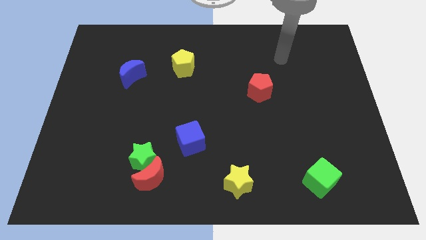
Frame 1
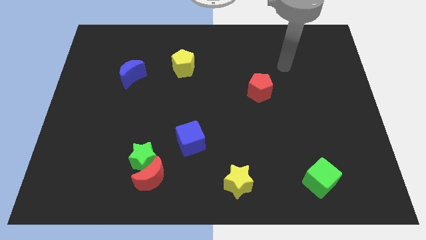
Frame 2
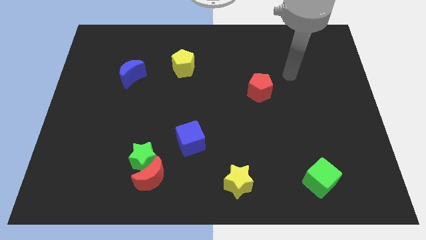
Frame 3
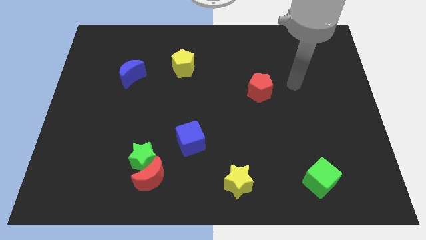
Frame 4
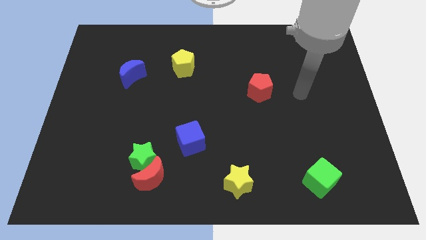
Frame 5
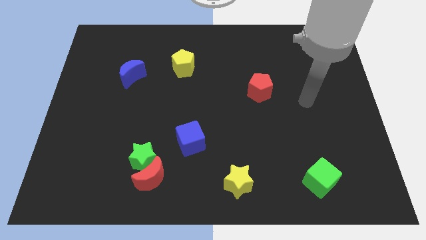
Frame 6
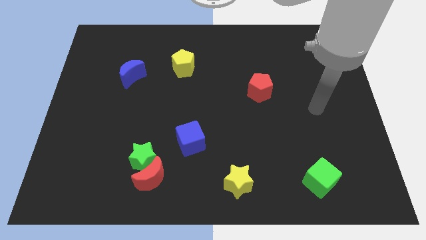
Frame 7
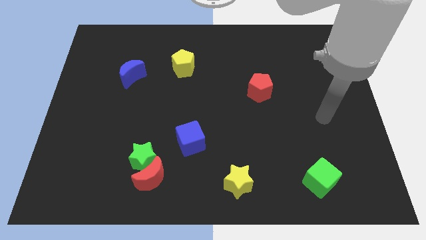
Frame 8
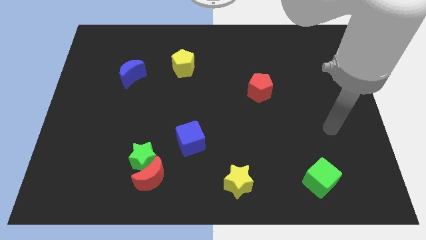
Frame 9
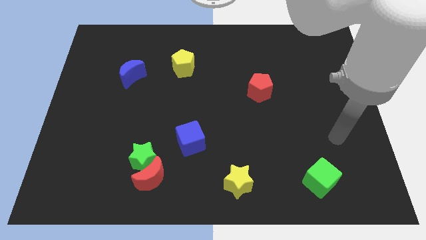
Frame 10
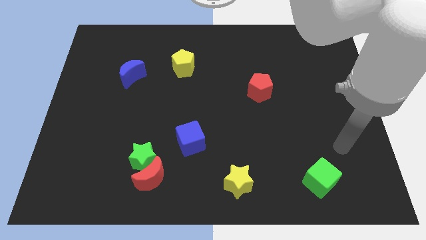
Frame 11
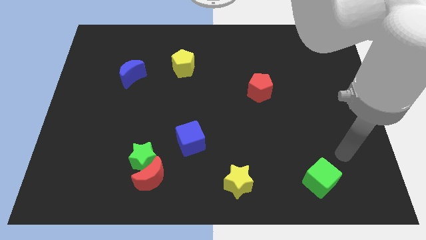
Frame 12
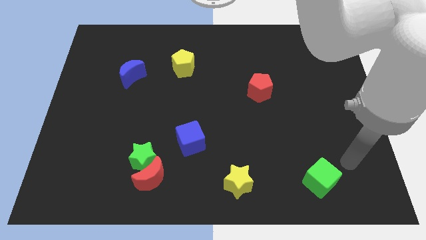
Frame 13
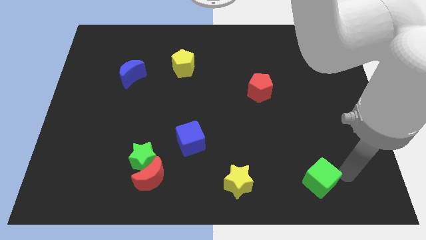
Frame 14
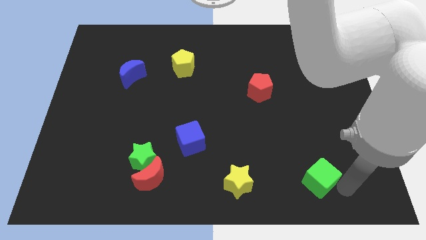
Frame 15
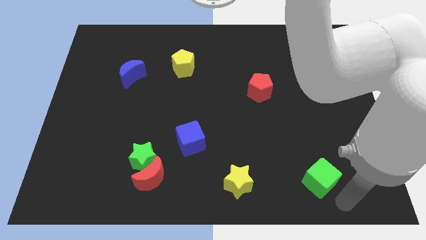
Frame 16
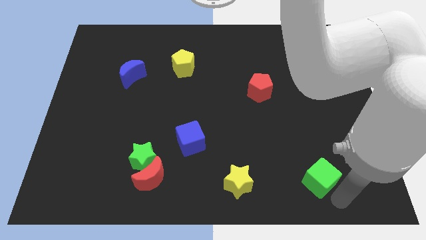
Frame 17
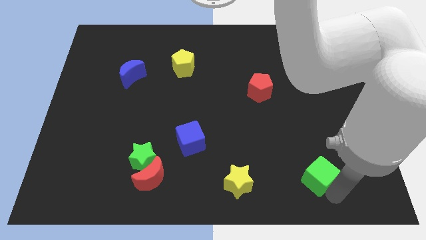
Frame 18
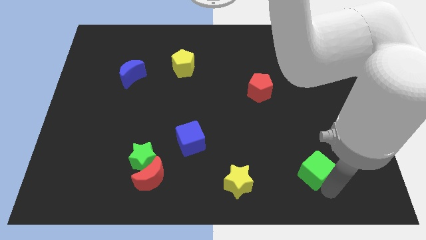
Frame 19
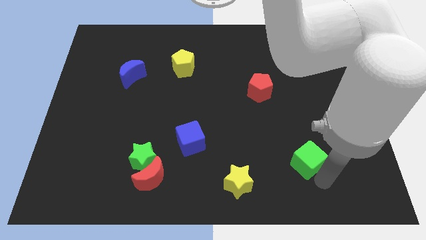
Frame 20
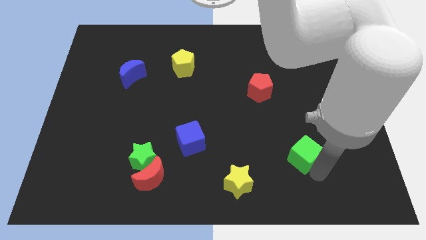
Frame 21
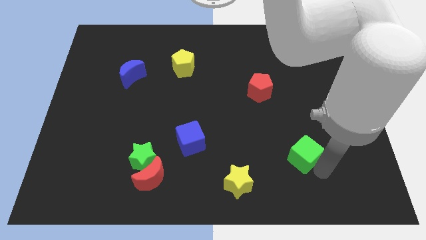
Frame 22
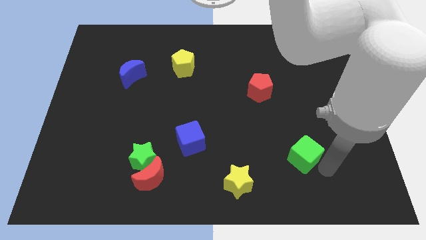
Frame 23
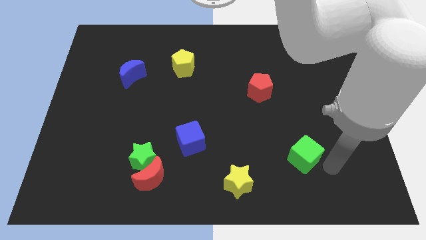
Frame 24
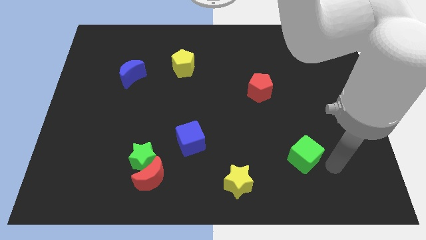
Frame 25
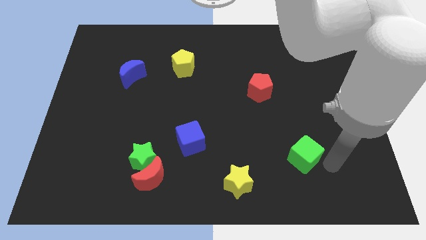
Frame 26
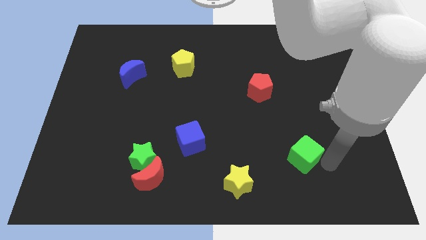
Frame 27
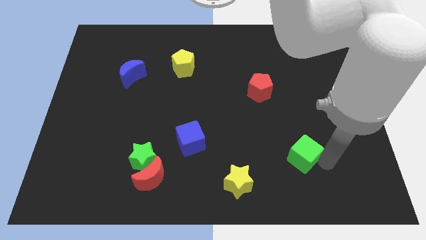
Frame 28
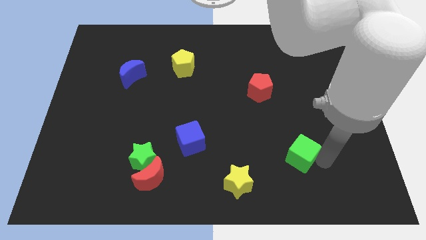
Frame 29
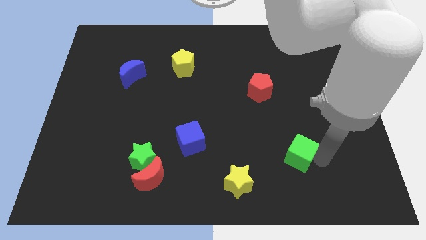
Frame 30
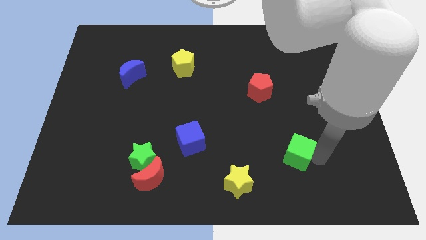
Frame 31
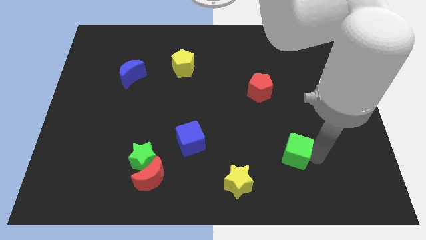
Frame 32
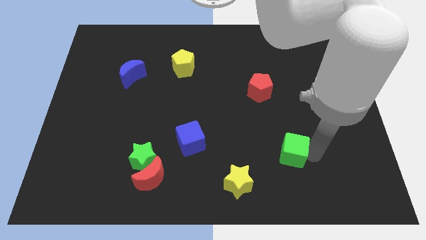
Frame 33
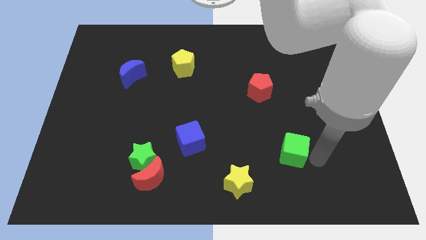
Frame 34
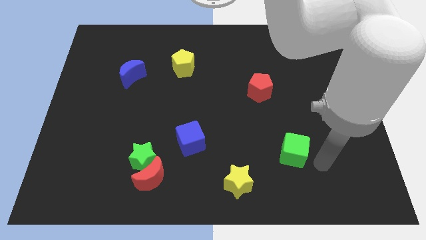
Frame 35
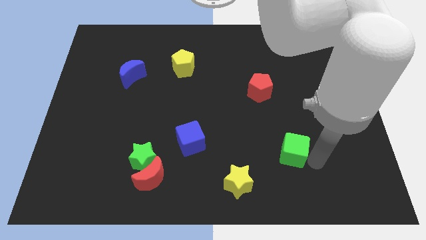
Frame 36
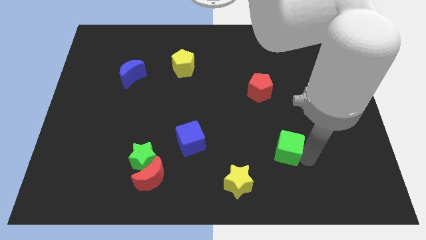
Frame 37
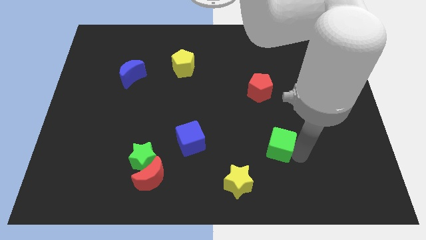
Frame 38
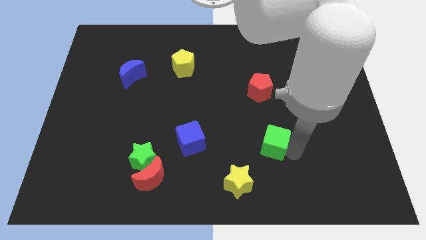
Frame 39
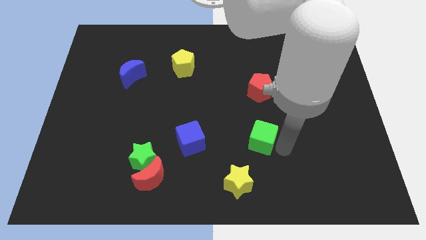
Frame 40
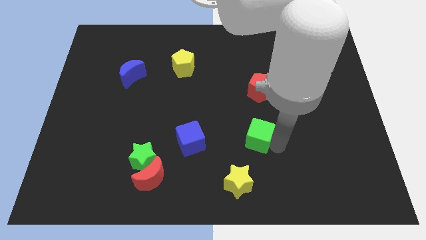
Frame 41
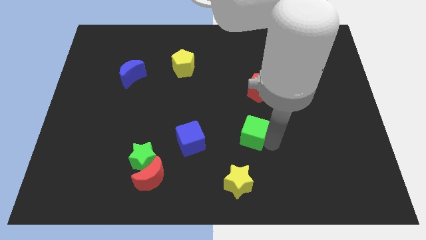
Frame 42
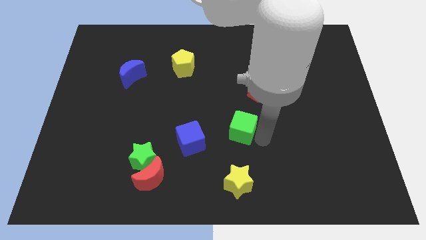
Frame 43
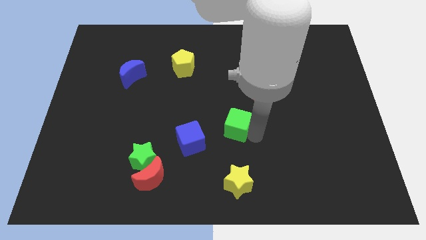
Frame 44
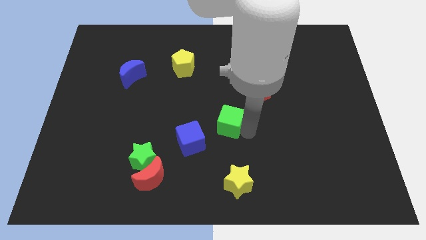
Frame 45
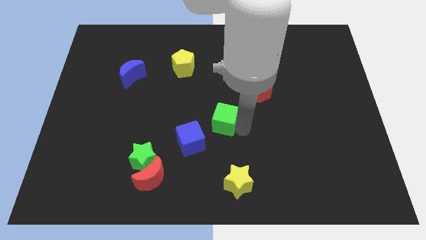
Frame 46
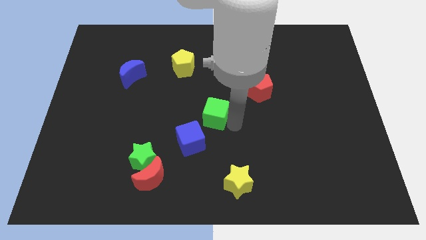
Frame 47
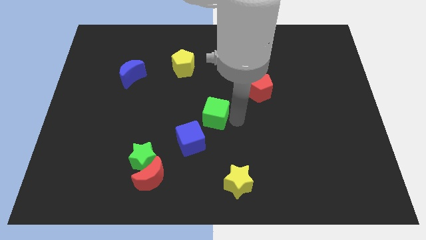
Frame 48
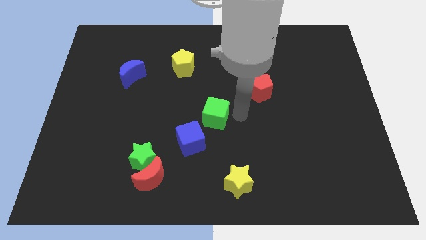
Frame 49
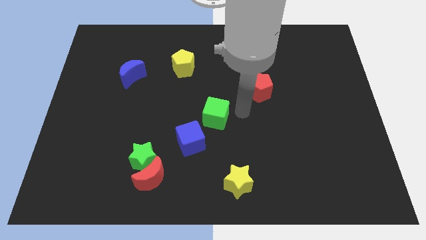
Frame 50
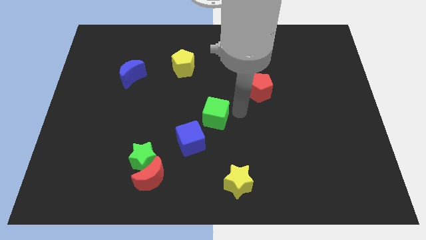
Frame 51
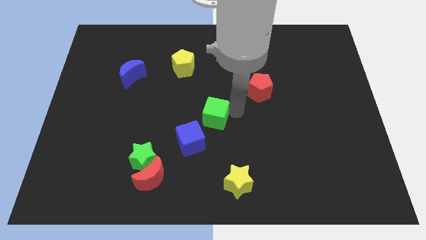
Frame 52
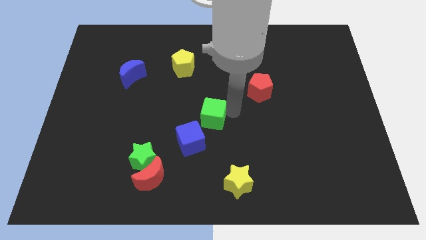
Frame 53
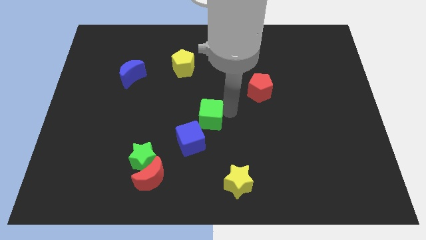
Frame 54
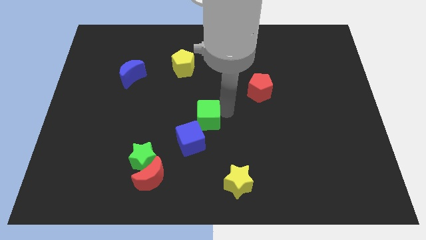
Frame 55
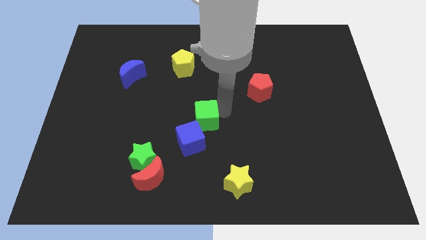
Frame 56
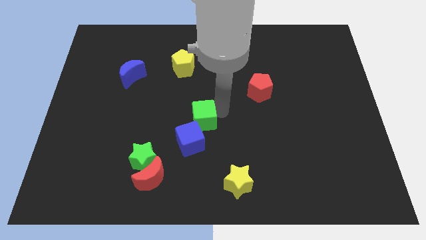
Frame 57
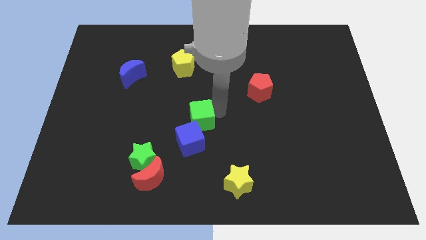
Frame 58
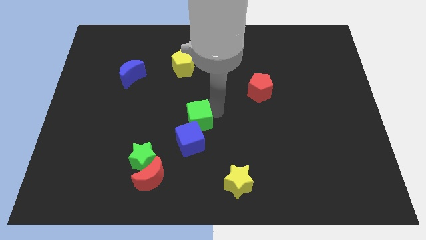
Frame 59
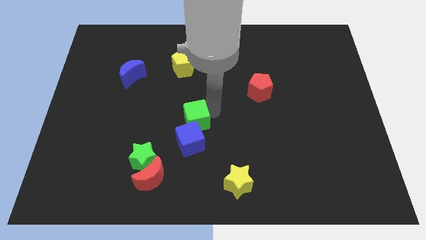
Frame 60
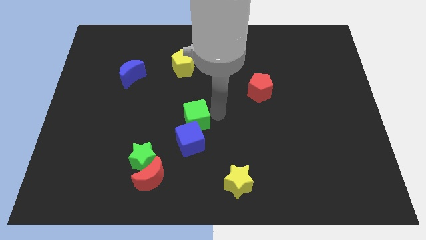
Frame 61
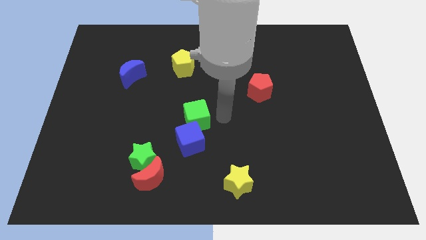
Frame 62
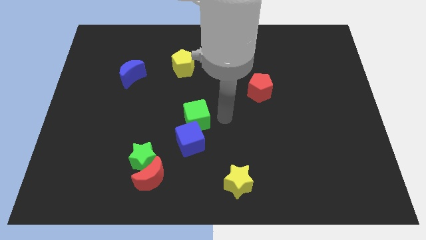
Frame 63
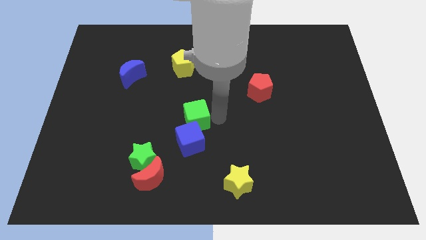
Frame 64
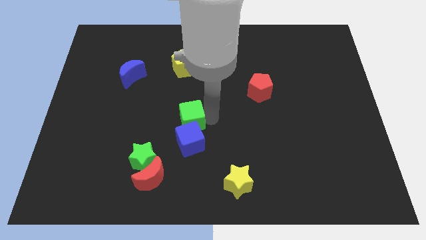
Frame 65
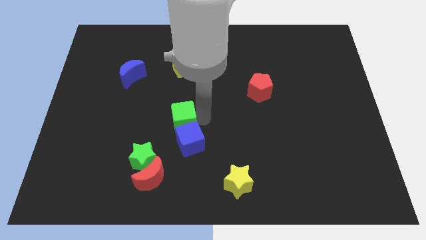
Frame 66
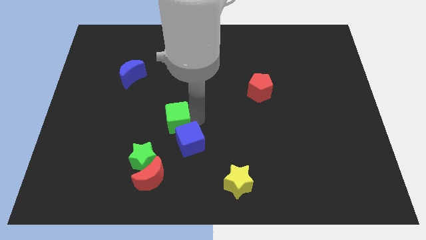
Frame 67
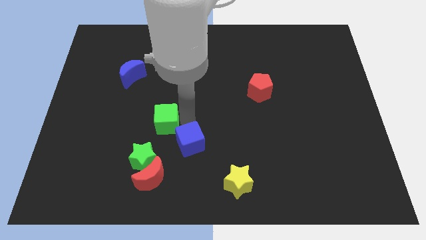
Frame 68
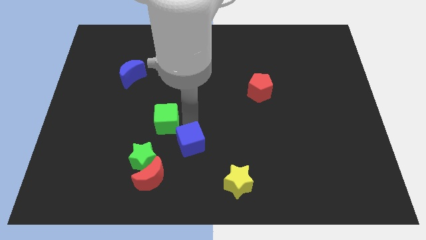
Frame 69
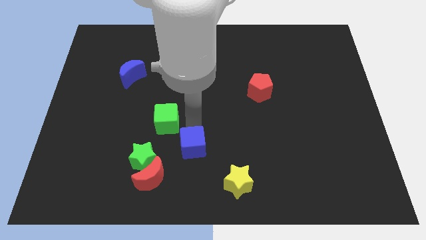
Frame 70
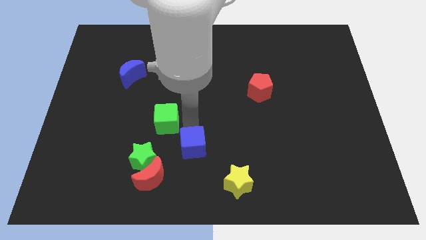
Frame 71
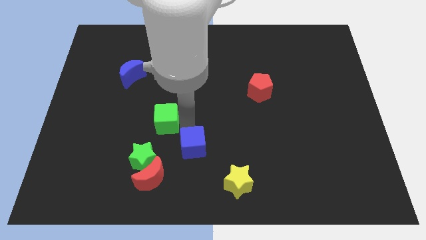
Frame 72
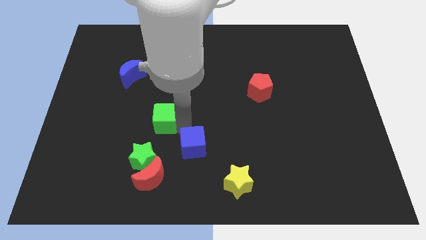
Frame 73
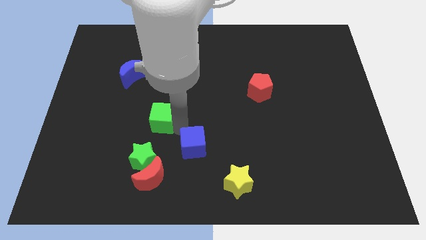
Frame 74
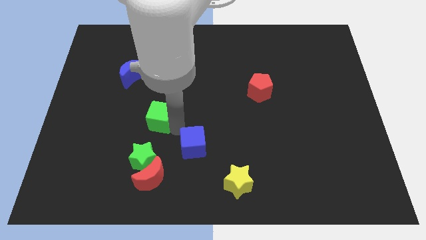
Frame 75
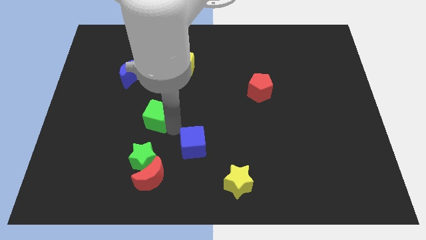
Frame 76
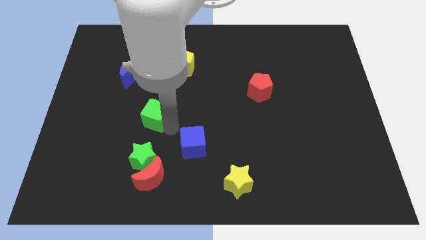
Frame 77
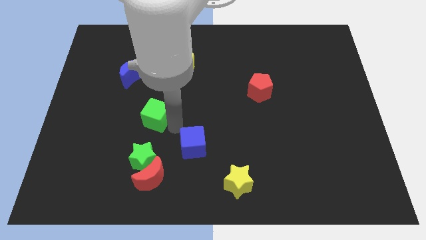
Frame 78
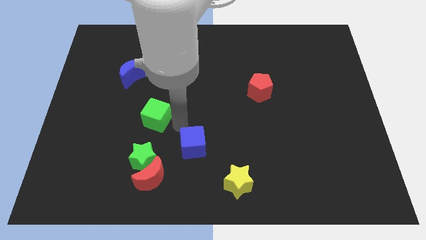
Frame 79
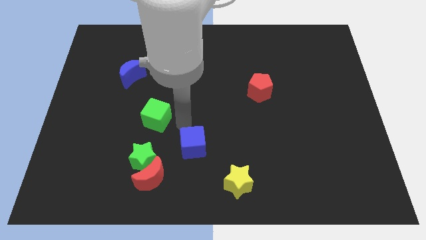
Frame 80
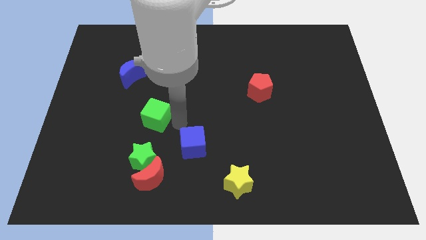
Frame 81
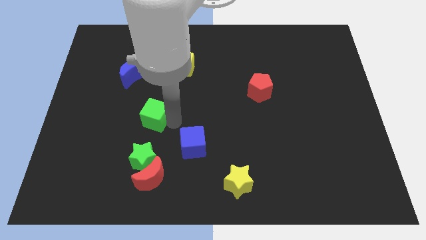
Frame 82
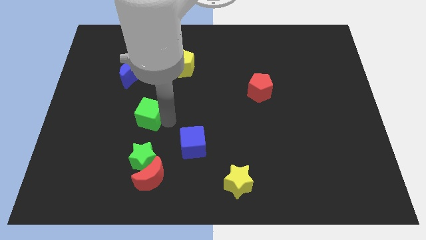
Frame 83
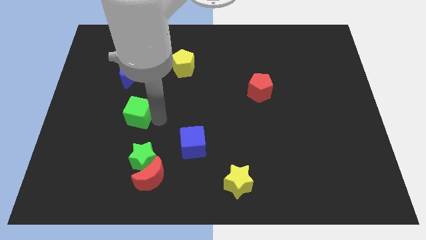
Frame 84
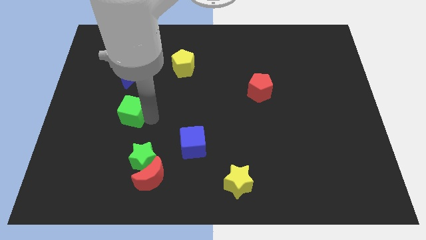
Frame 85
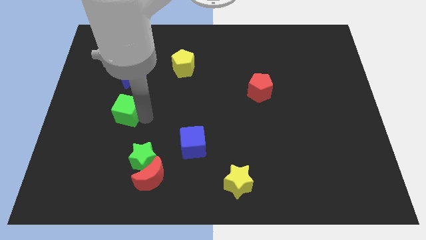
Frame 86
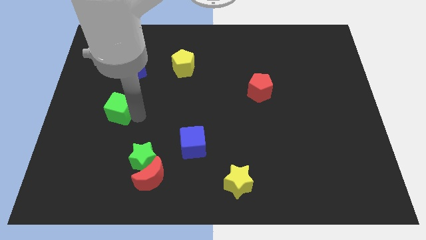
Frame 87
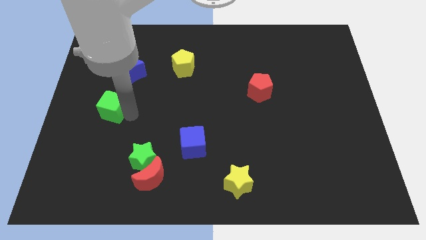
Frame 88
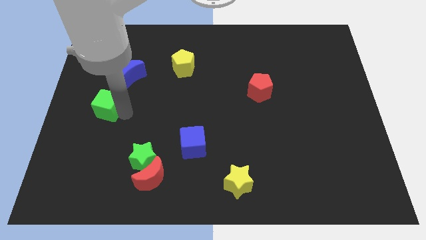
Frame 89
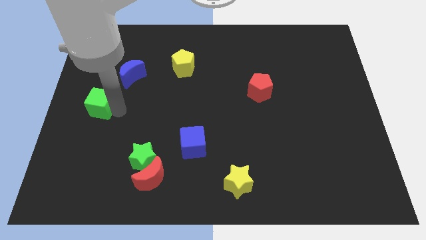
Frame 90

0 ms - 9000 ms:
put the green cube to the center left
